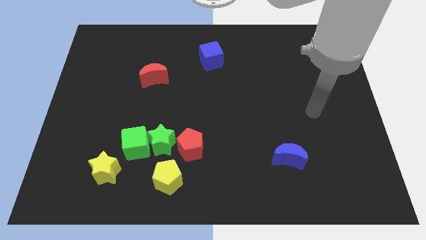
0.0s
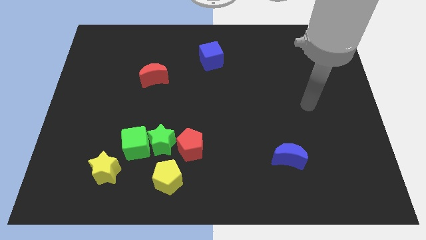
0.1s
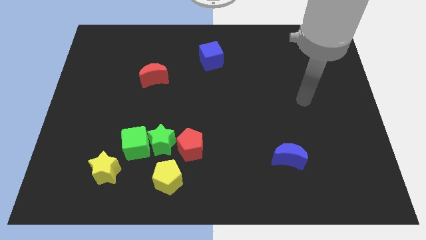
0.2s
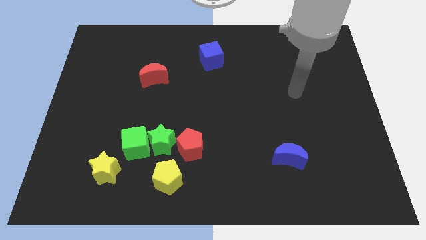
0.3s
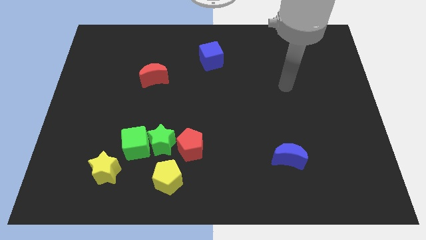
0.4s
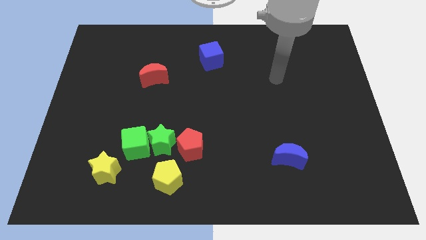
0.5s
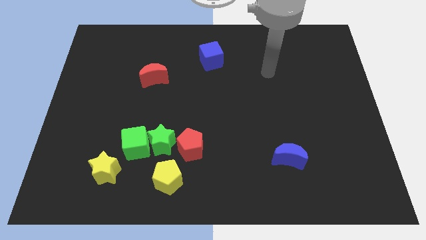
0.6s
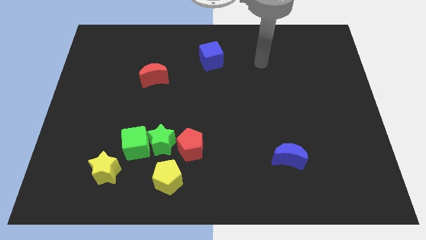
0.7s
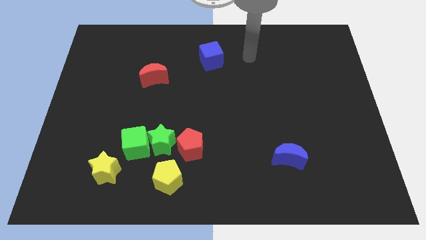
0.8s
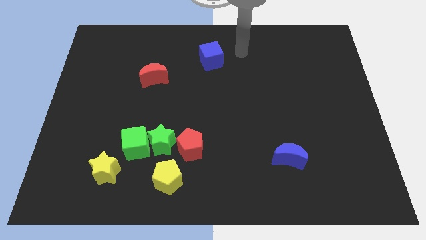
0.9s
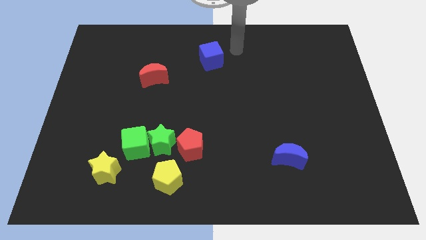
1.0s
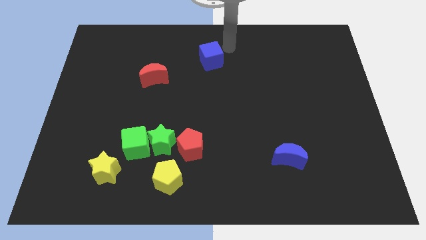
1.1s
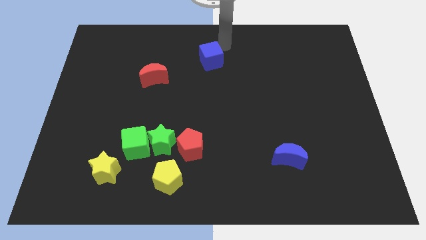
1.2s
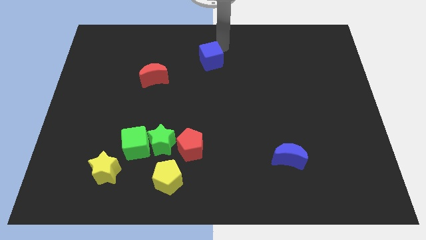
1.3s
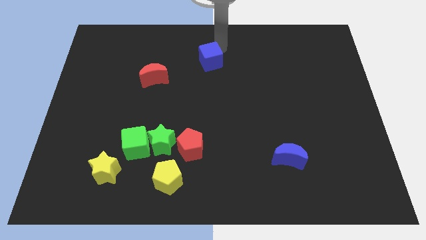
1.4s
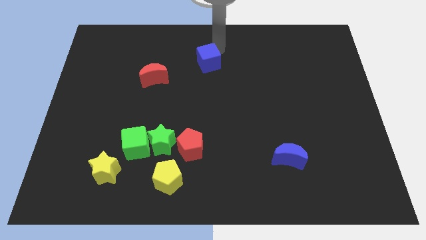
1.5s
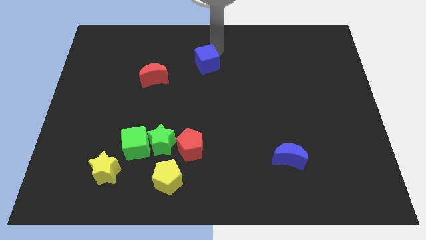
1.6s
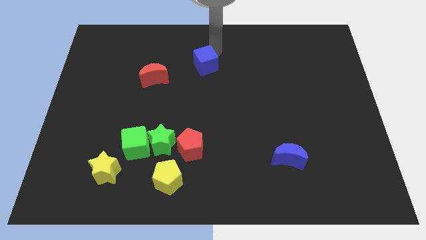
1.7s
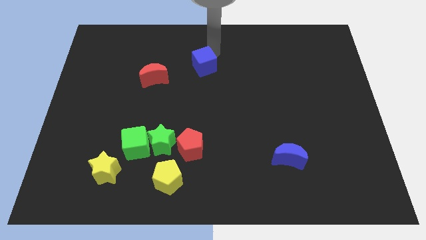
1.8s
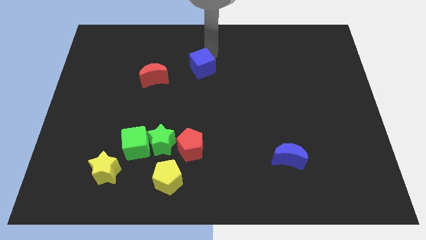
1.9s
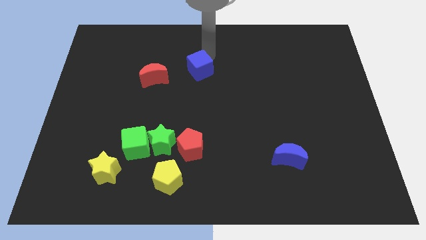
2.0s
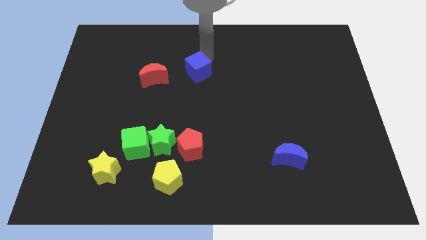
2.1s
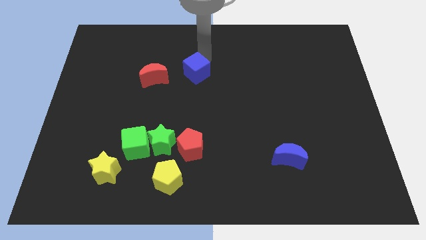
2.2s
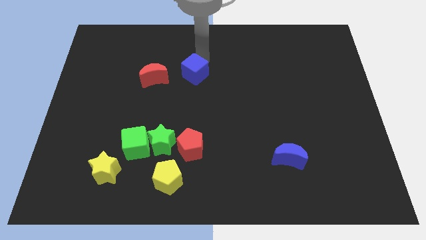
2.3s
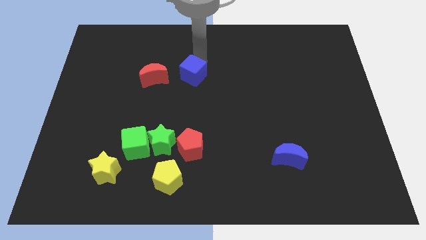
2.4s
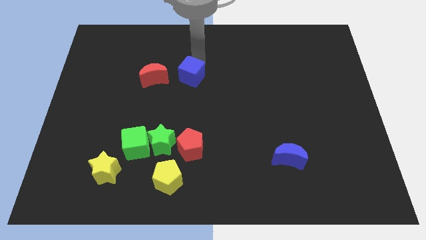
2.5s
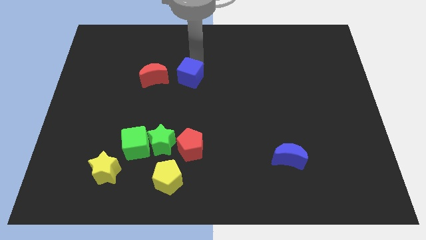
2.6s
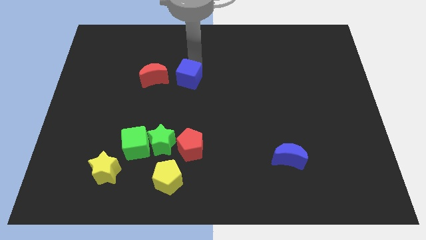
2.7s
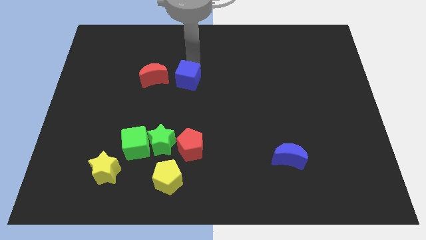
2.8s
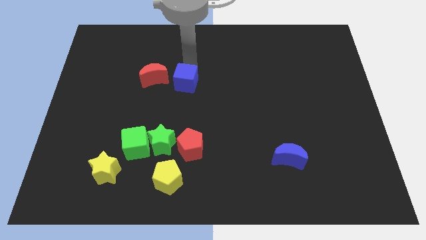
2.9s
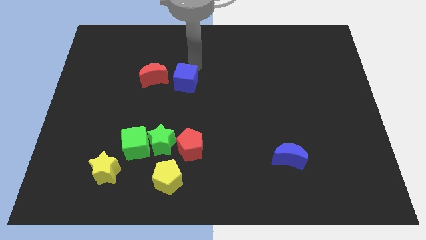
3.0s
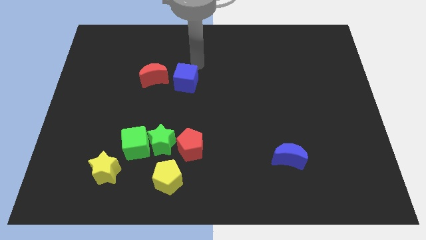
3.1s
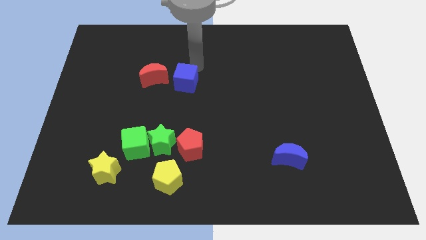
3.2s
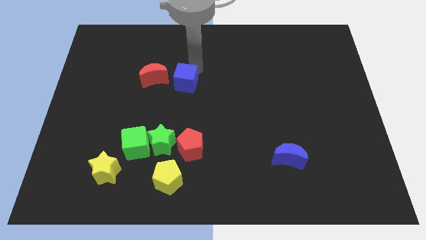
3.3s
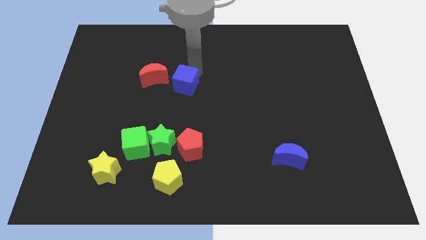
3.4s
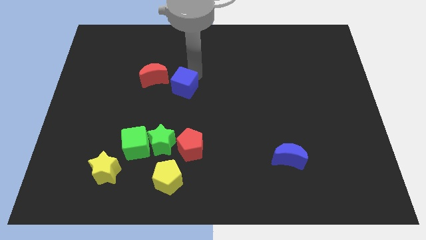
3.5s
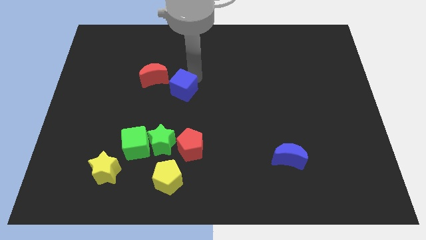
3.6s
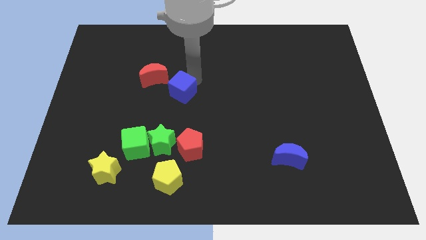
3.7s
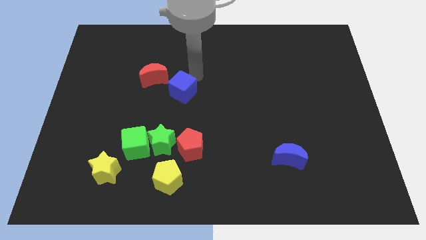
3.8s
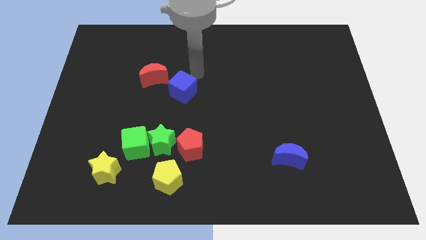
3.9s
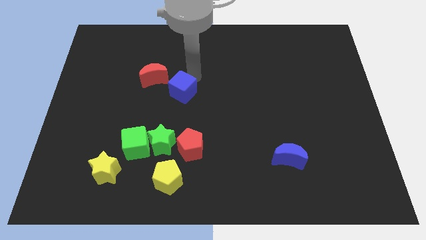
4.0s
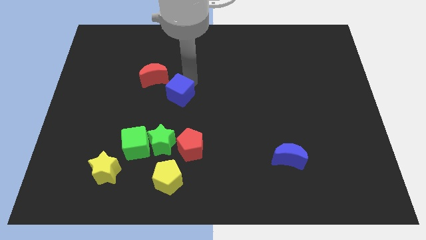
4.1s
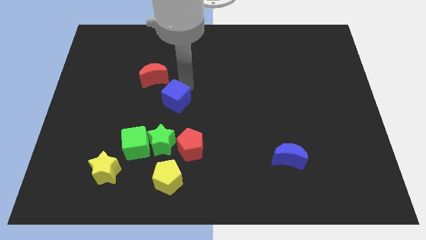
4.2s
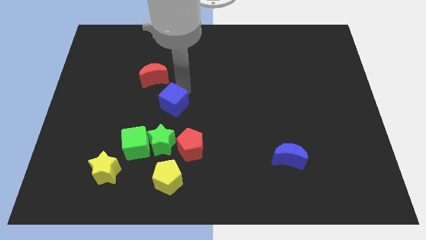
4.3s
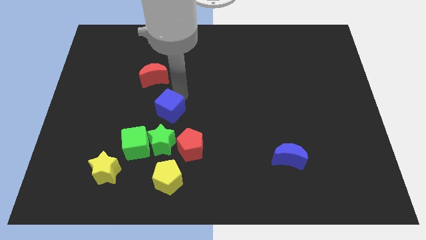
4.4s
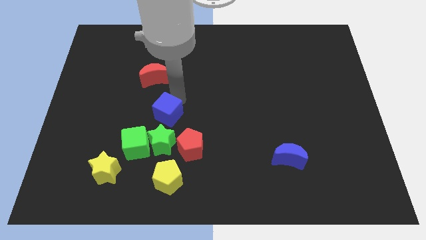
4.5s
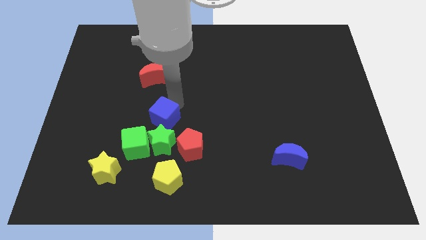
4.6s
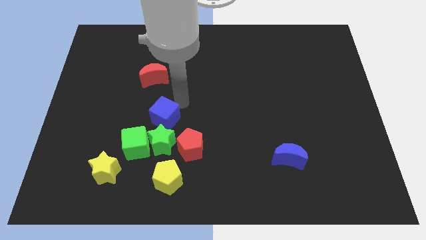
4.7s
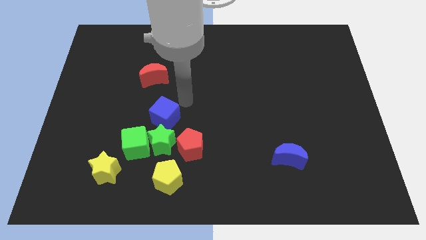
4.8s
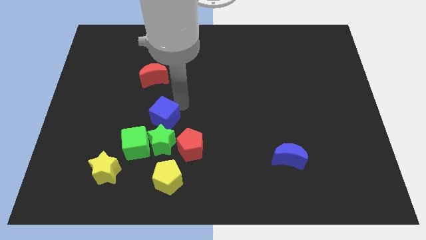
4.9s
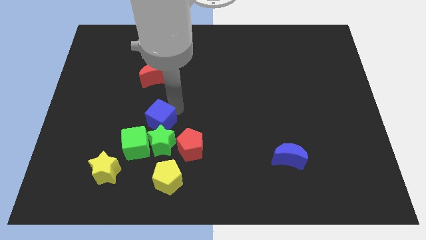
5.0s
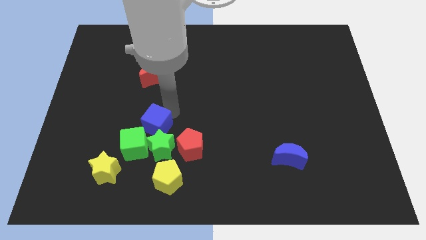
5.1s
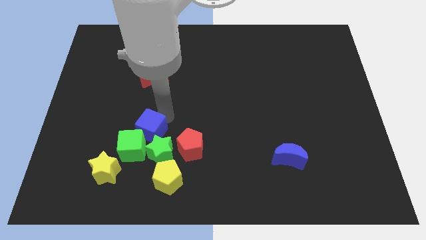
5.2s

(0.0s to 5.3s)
slide the blue cube next to the green cube

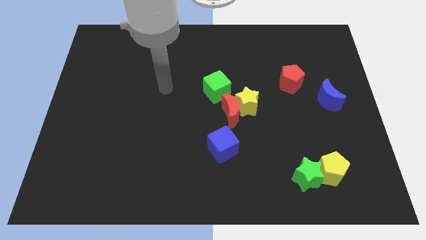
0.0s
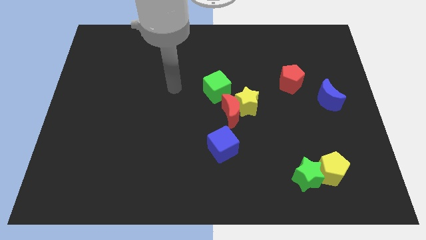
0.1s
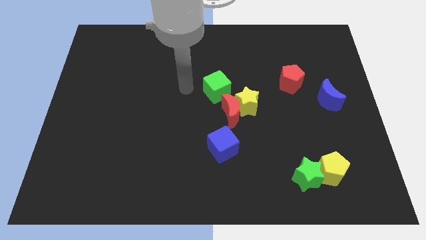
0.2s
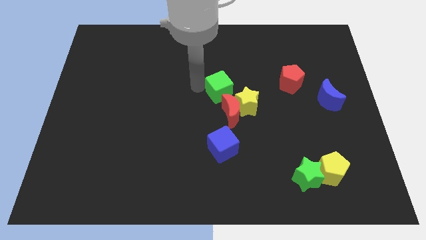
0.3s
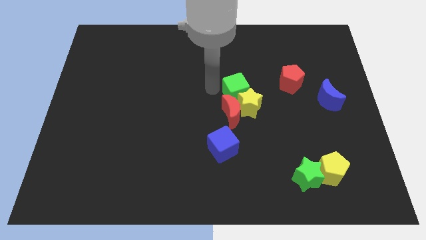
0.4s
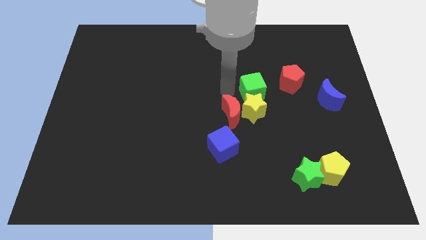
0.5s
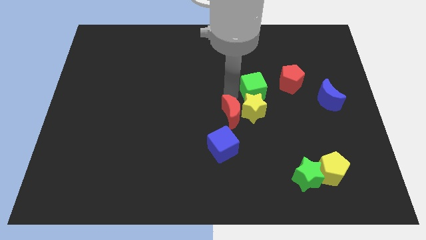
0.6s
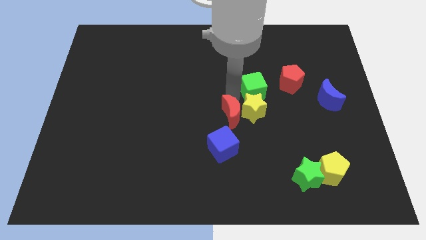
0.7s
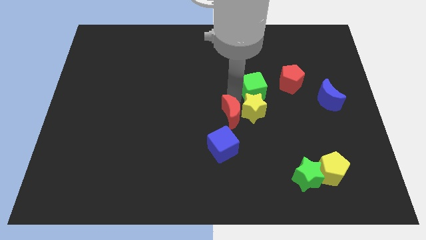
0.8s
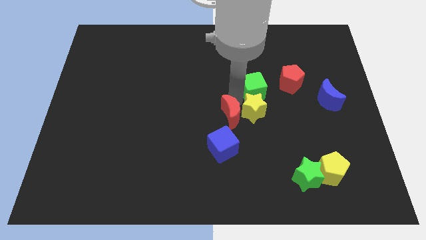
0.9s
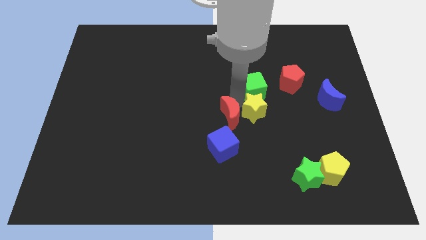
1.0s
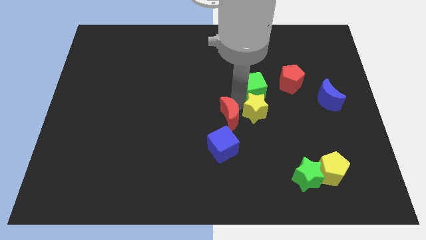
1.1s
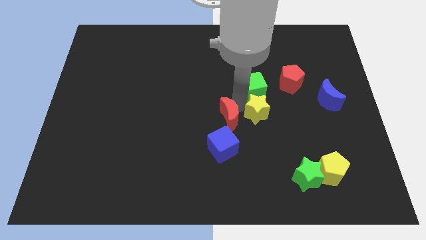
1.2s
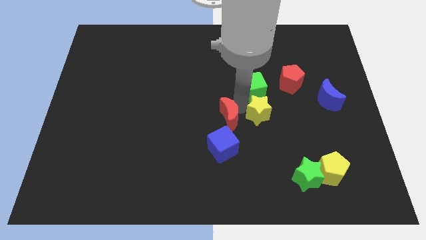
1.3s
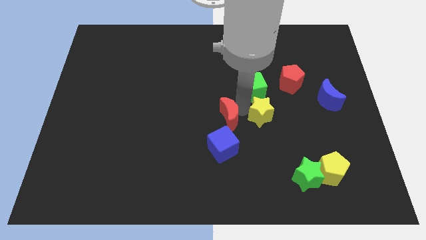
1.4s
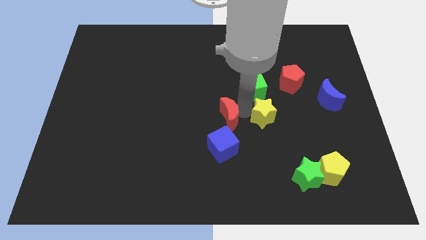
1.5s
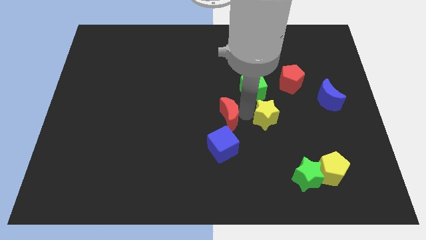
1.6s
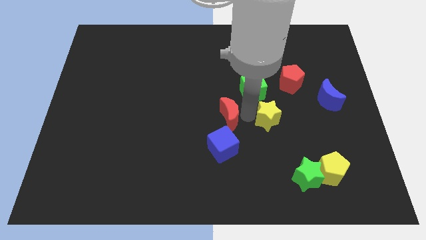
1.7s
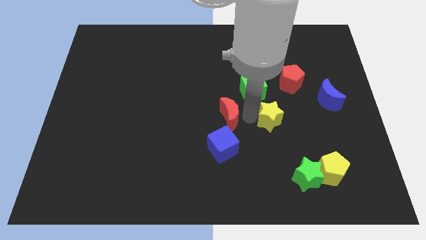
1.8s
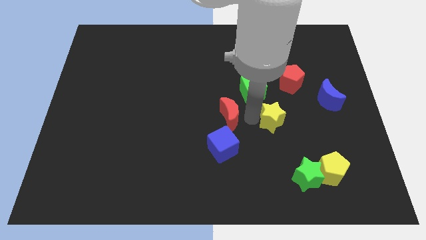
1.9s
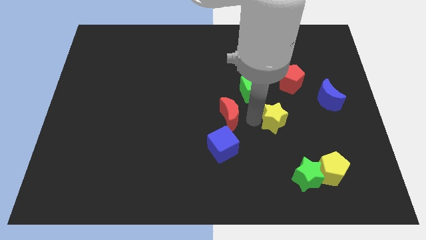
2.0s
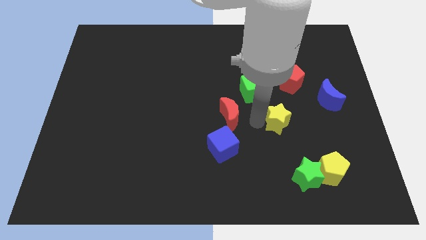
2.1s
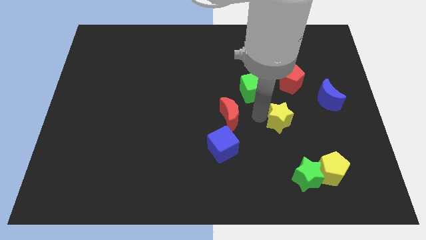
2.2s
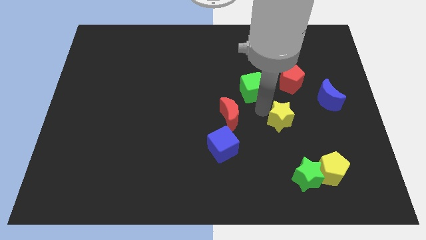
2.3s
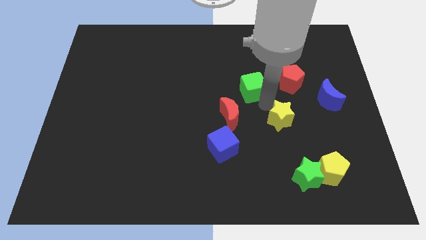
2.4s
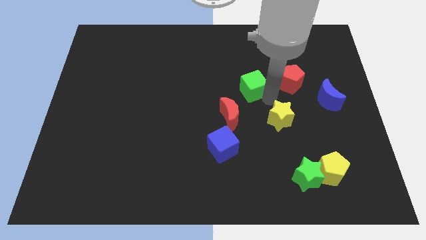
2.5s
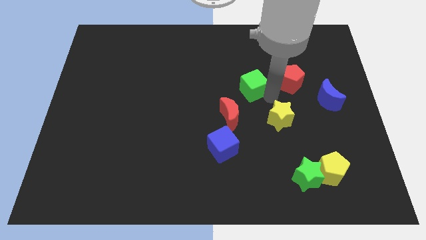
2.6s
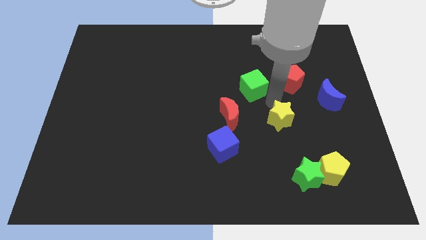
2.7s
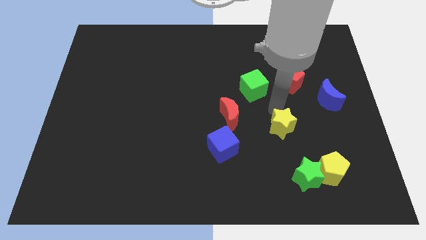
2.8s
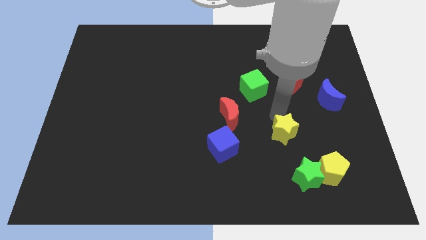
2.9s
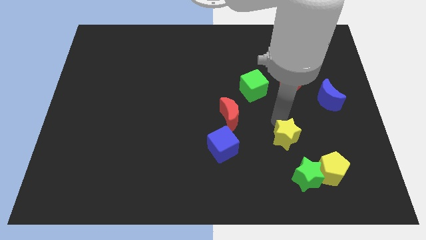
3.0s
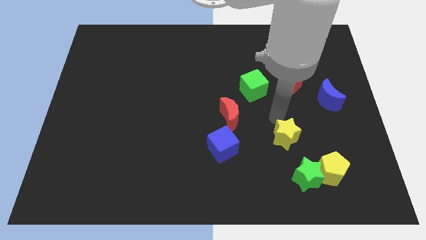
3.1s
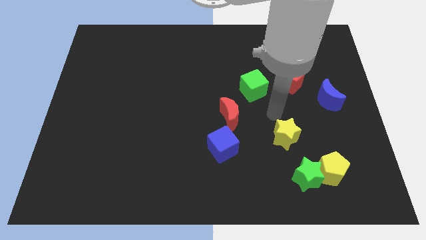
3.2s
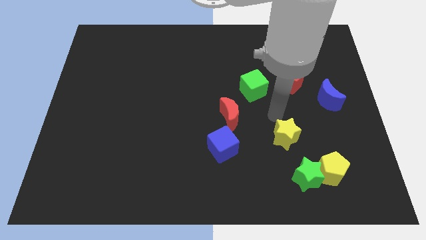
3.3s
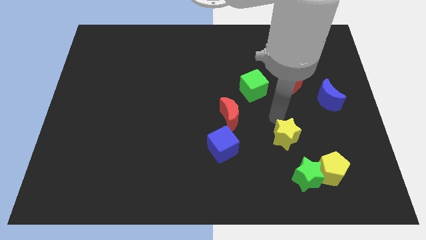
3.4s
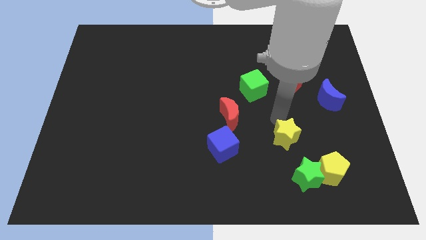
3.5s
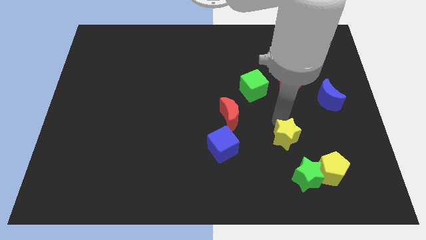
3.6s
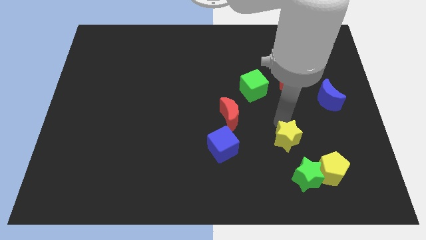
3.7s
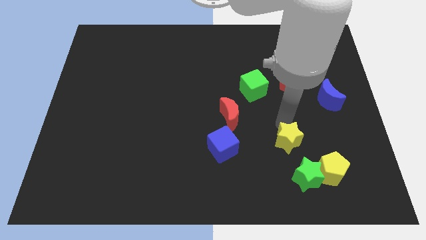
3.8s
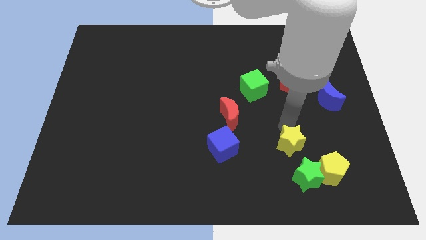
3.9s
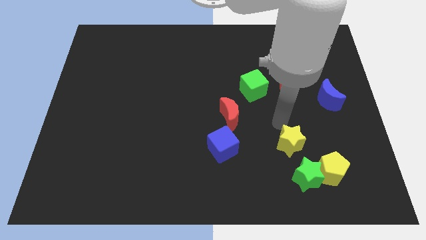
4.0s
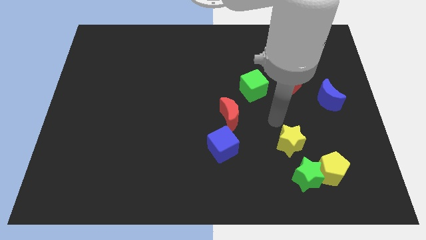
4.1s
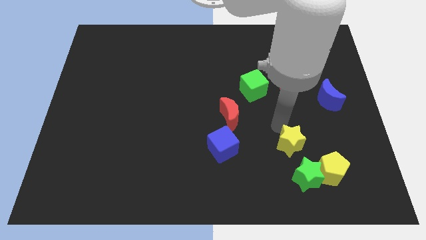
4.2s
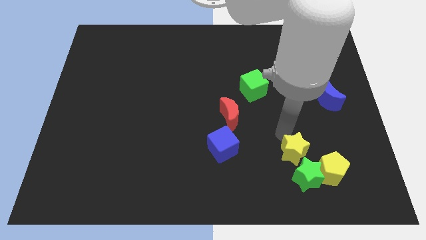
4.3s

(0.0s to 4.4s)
push the yellow star next to the green star
